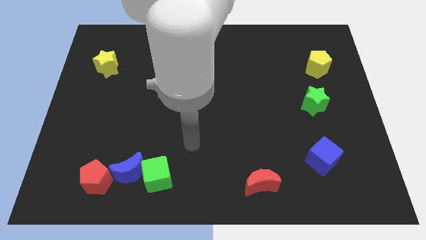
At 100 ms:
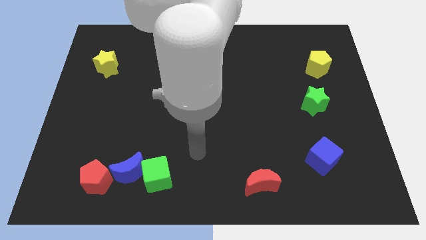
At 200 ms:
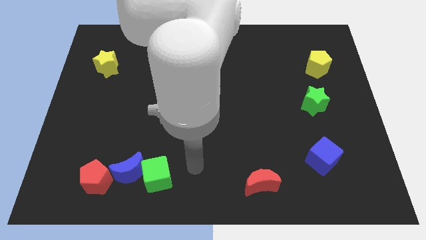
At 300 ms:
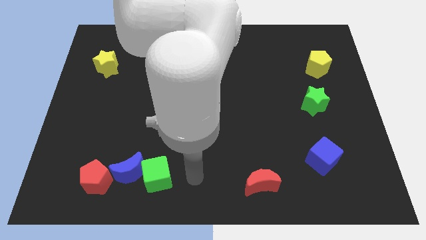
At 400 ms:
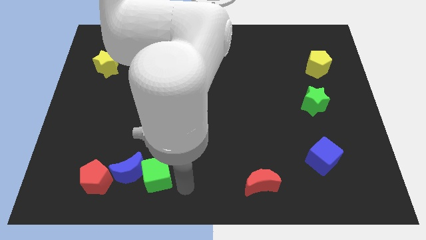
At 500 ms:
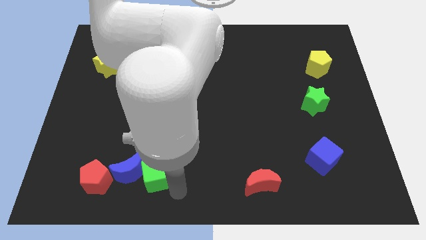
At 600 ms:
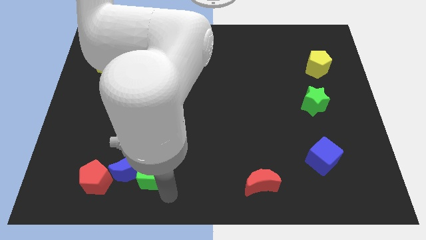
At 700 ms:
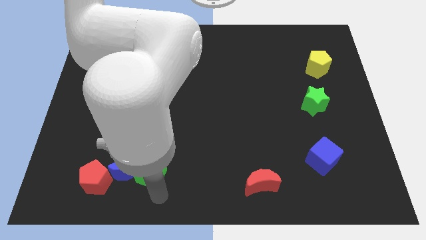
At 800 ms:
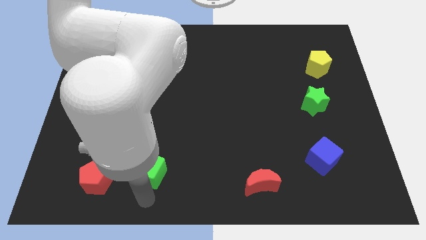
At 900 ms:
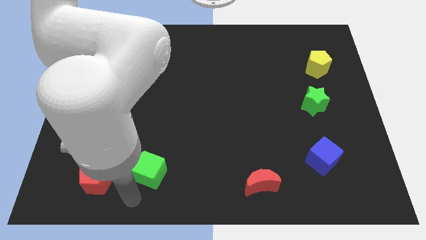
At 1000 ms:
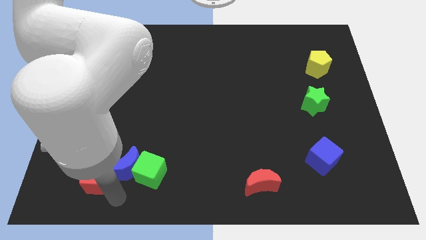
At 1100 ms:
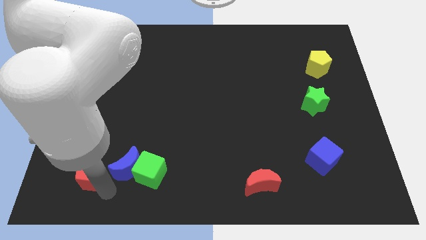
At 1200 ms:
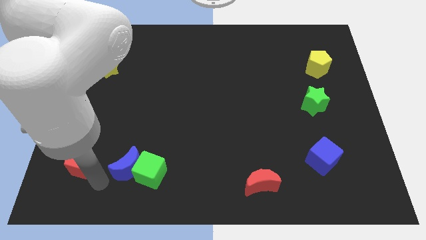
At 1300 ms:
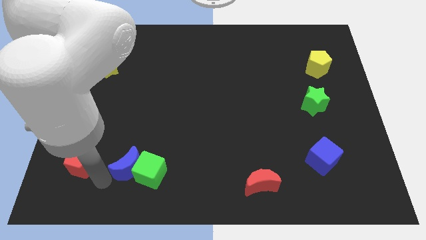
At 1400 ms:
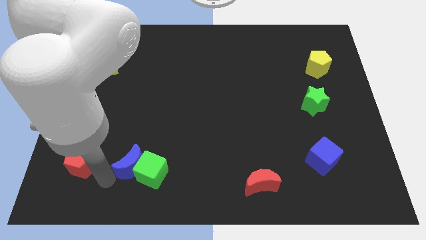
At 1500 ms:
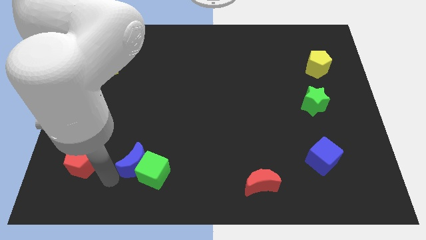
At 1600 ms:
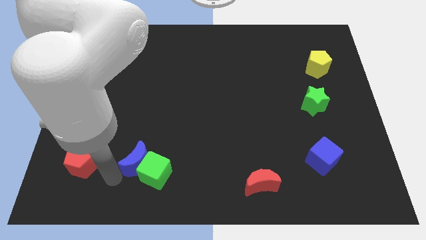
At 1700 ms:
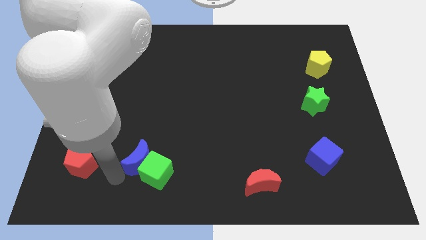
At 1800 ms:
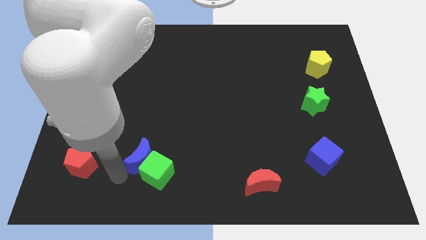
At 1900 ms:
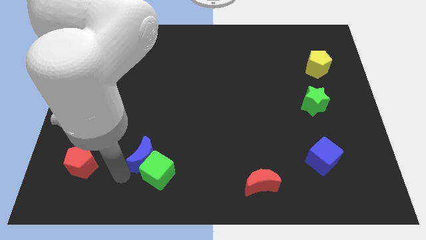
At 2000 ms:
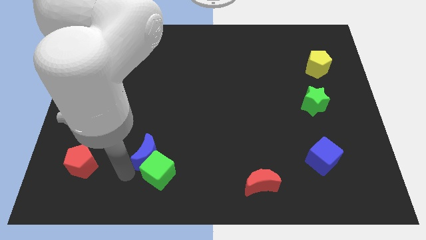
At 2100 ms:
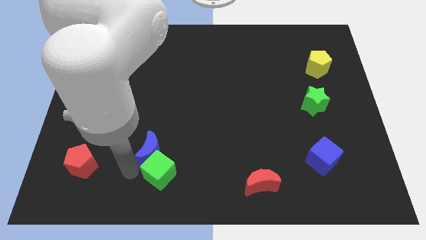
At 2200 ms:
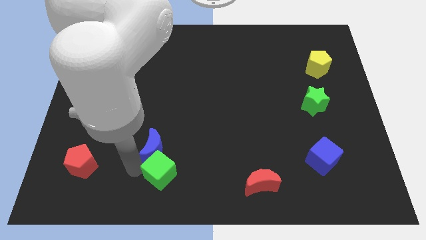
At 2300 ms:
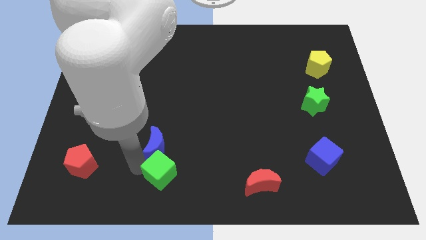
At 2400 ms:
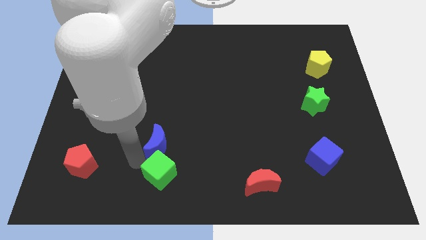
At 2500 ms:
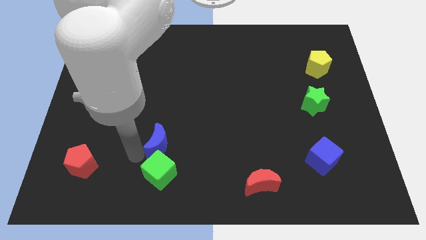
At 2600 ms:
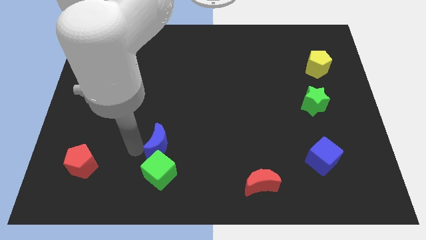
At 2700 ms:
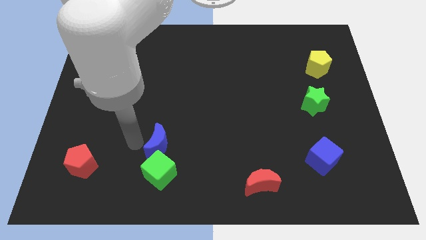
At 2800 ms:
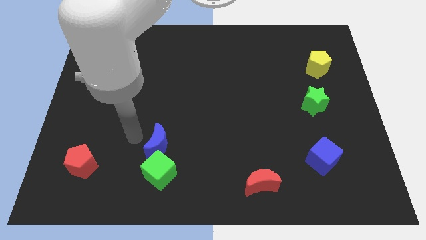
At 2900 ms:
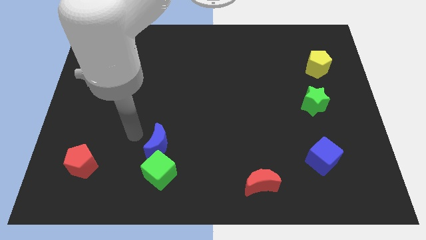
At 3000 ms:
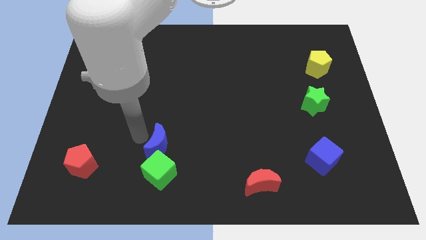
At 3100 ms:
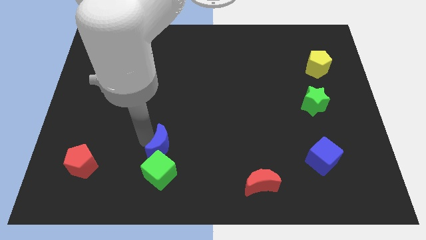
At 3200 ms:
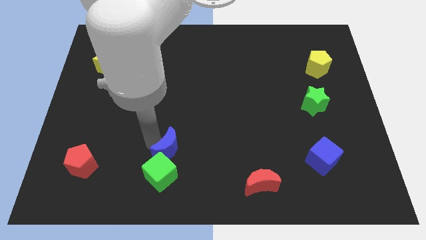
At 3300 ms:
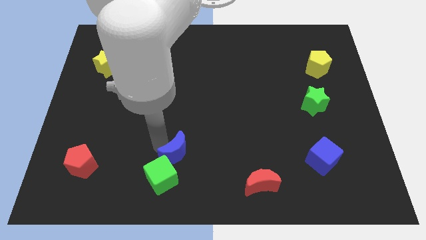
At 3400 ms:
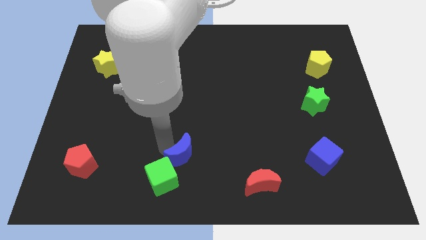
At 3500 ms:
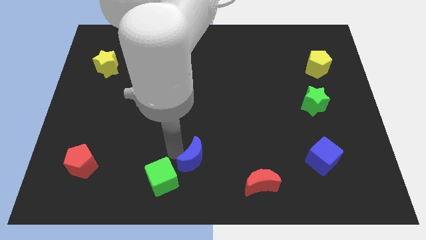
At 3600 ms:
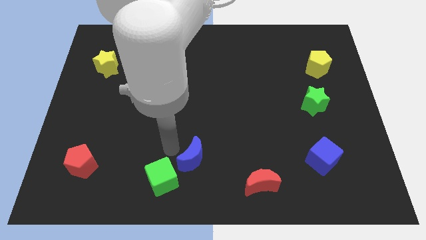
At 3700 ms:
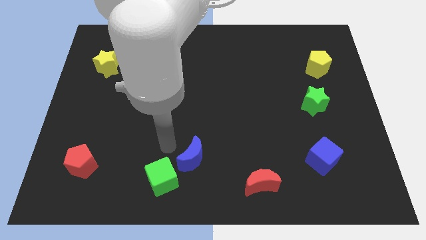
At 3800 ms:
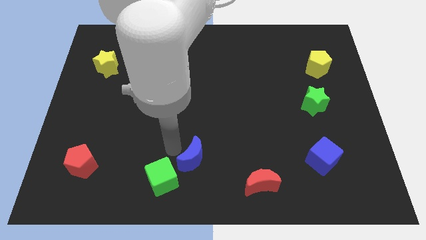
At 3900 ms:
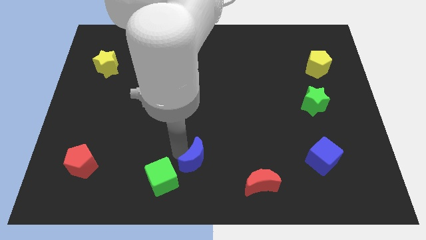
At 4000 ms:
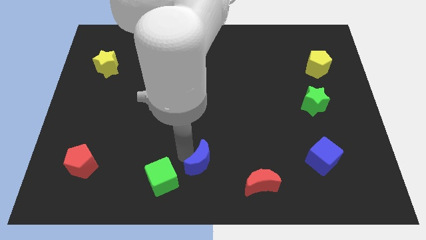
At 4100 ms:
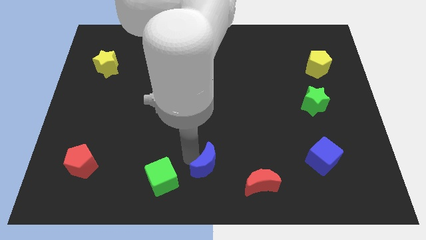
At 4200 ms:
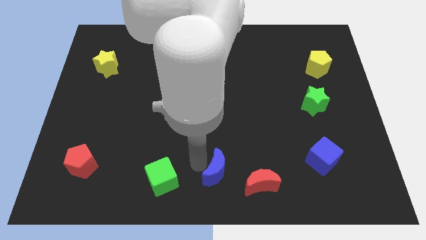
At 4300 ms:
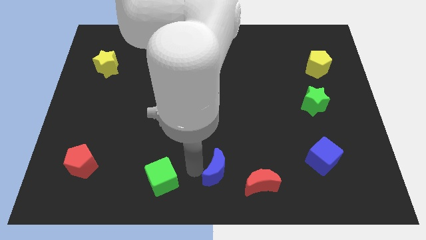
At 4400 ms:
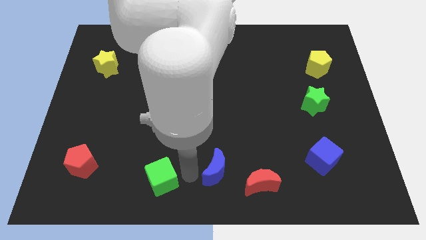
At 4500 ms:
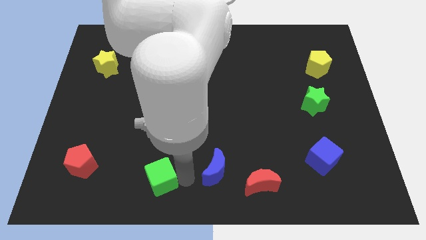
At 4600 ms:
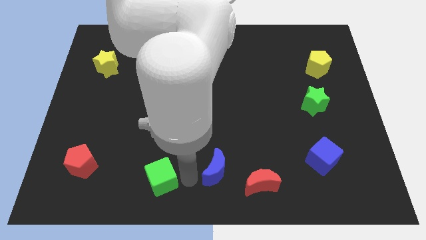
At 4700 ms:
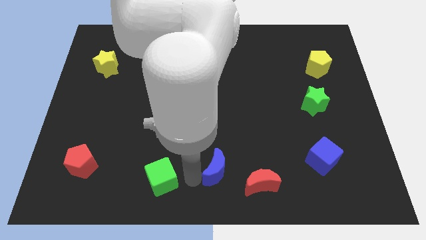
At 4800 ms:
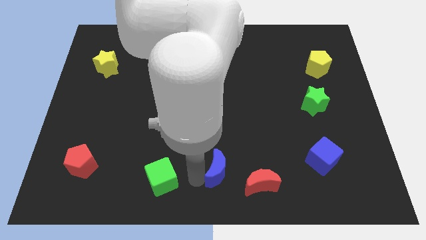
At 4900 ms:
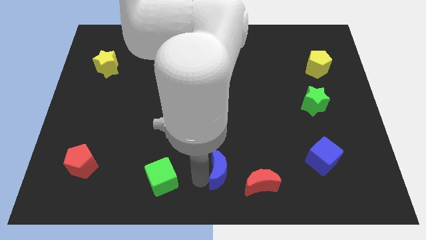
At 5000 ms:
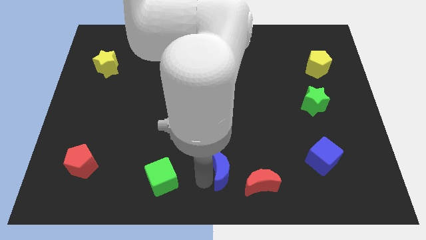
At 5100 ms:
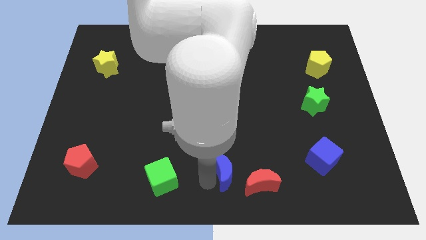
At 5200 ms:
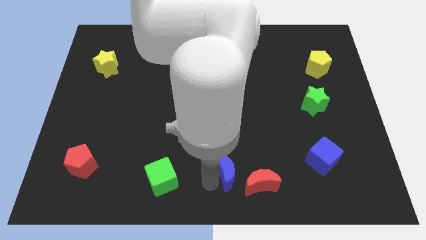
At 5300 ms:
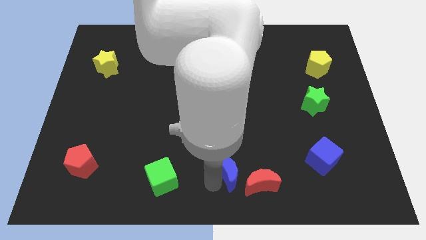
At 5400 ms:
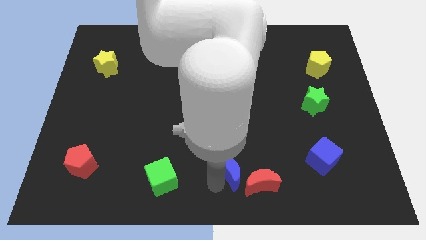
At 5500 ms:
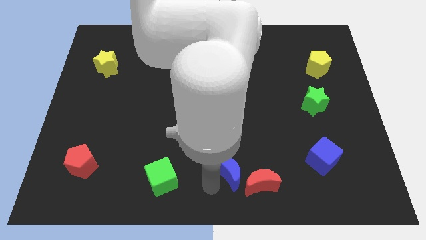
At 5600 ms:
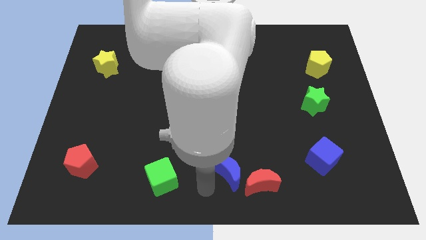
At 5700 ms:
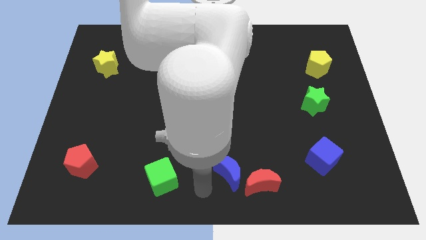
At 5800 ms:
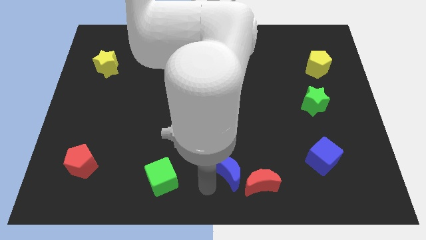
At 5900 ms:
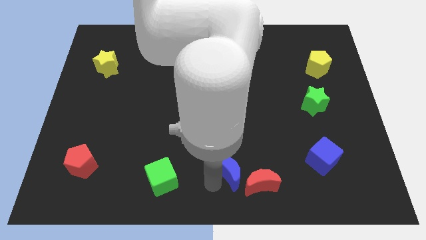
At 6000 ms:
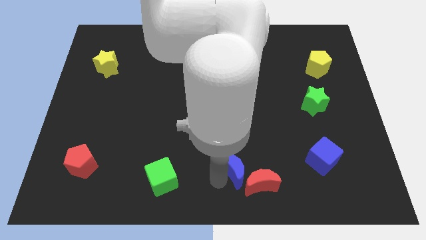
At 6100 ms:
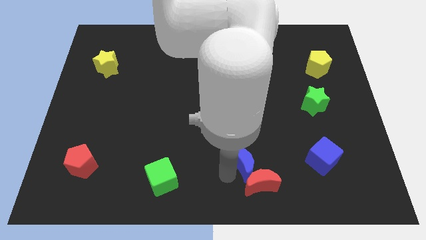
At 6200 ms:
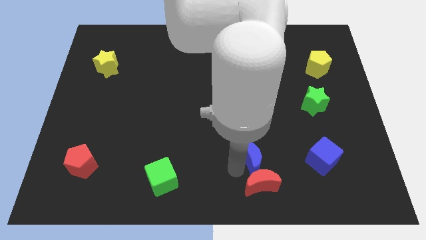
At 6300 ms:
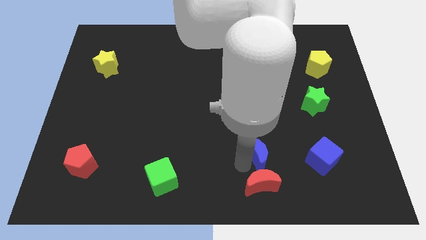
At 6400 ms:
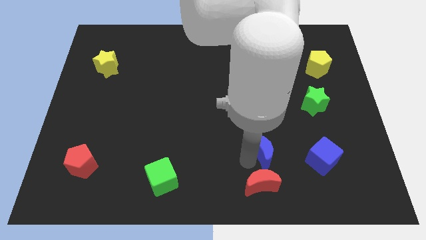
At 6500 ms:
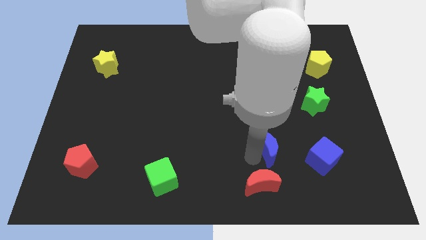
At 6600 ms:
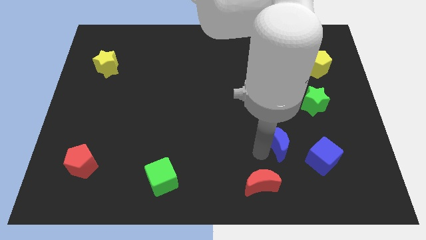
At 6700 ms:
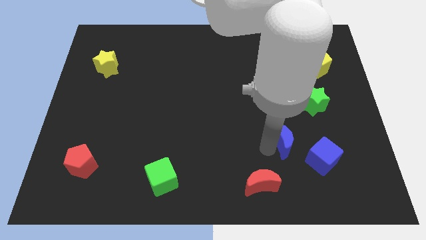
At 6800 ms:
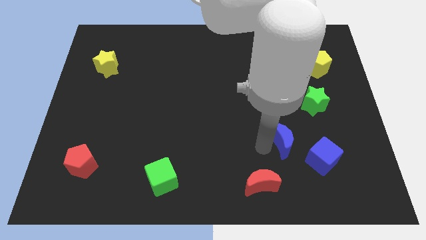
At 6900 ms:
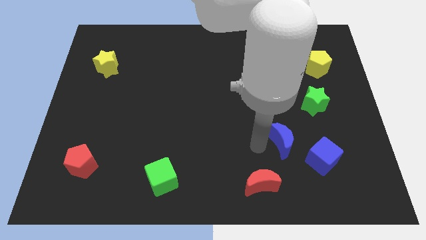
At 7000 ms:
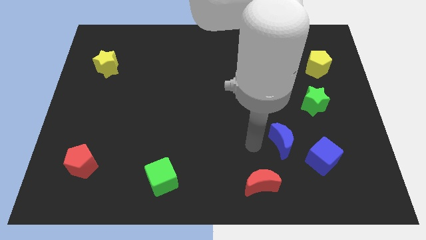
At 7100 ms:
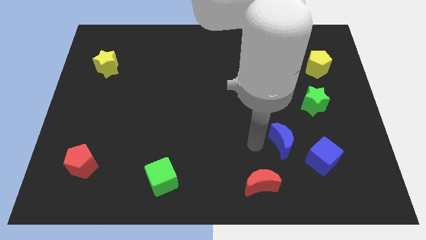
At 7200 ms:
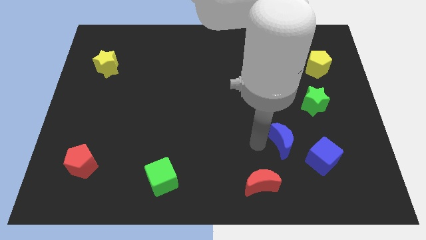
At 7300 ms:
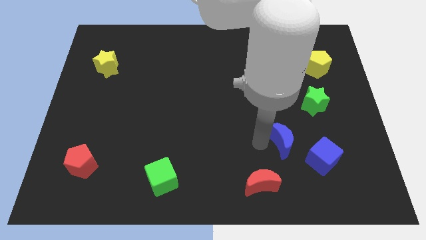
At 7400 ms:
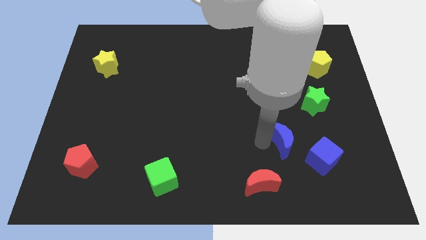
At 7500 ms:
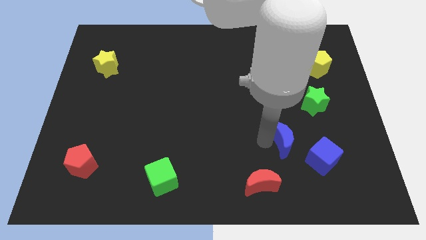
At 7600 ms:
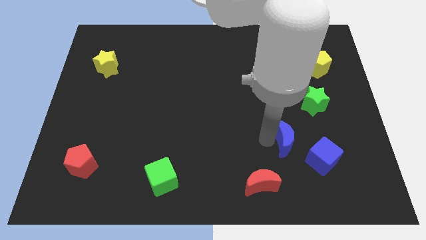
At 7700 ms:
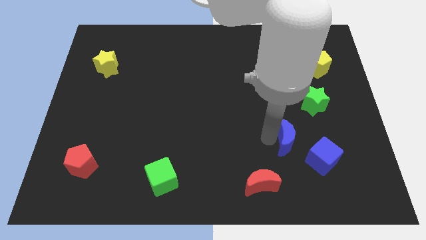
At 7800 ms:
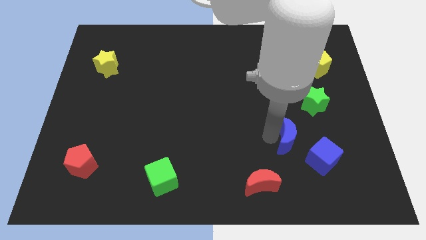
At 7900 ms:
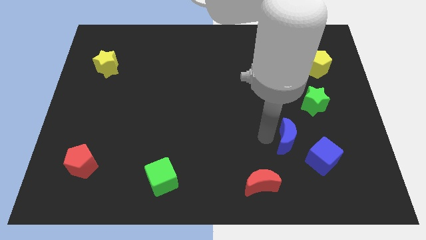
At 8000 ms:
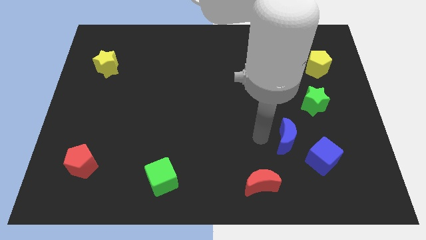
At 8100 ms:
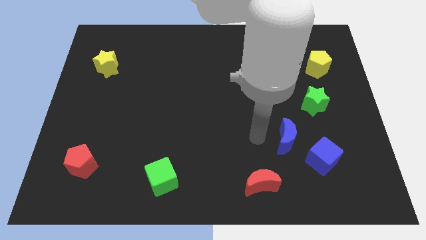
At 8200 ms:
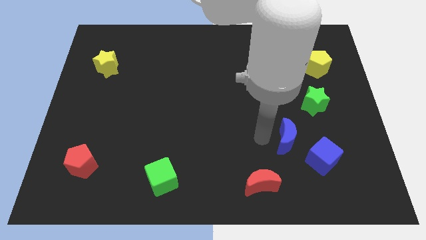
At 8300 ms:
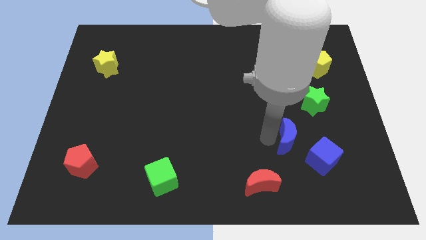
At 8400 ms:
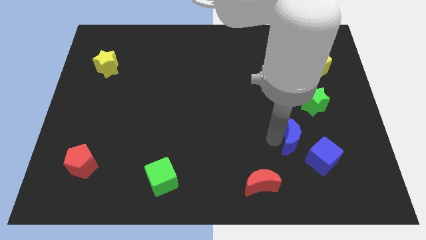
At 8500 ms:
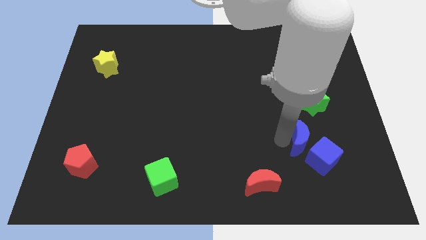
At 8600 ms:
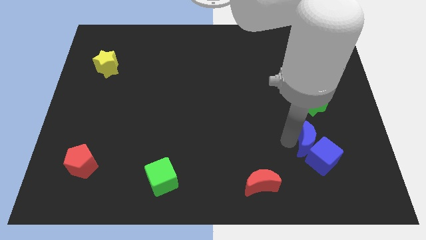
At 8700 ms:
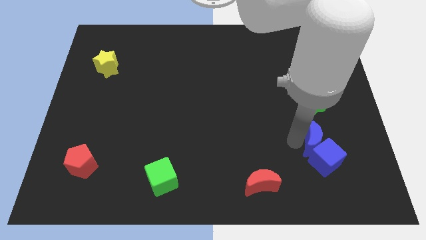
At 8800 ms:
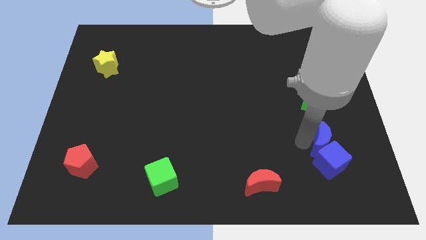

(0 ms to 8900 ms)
put the blue moon to the top right of the blue cube
